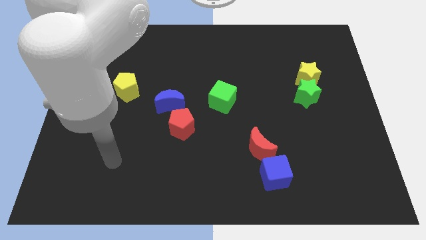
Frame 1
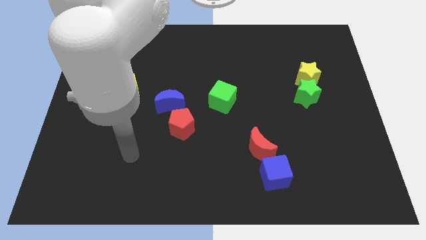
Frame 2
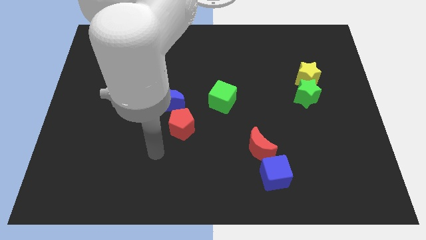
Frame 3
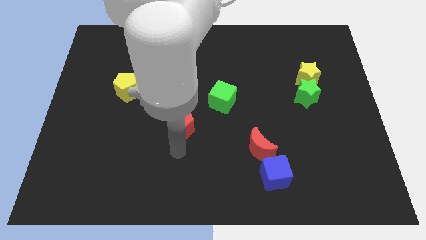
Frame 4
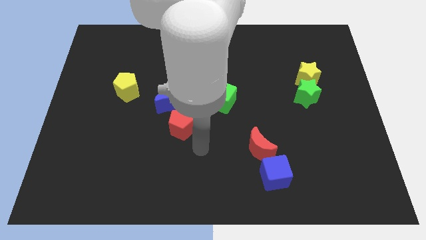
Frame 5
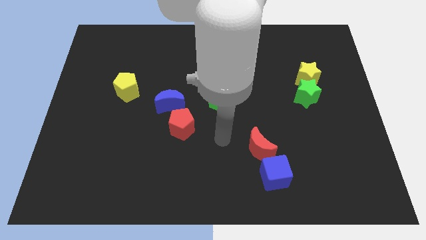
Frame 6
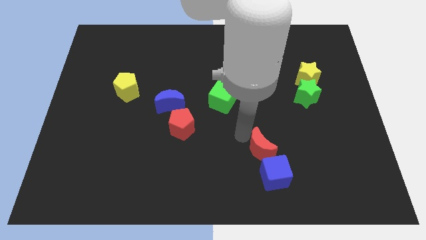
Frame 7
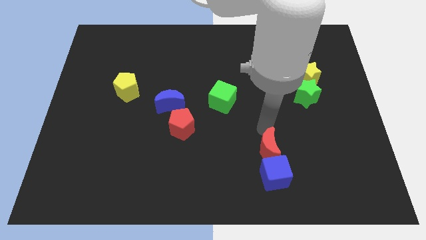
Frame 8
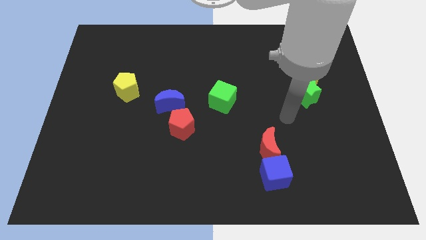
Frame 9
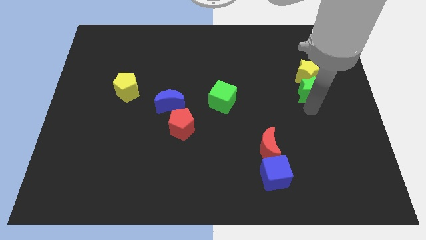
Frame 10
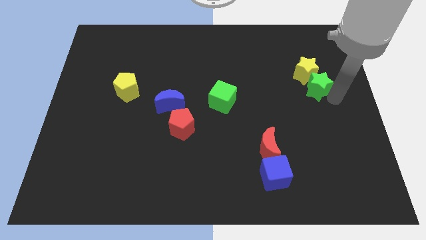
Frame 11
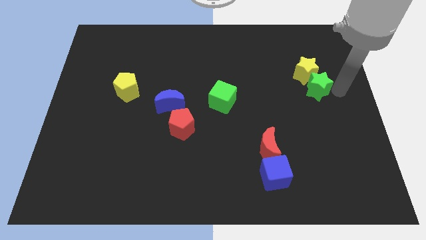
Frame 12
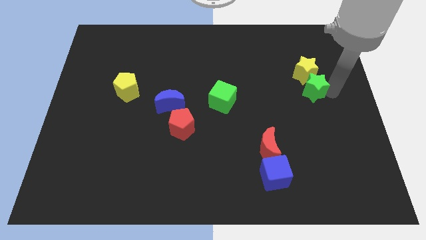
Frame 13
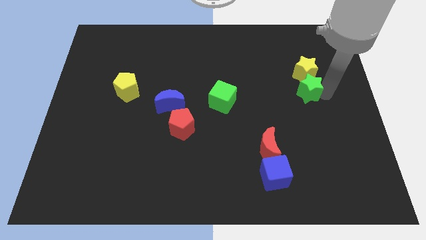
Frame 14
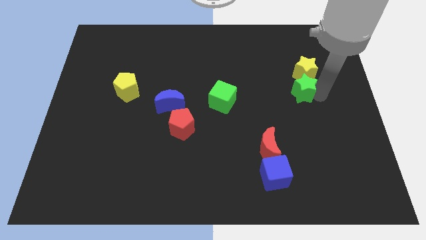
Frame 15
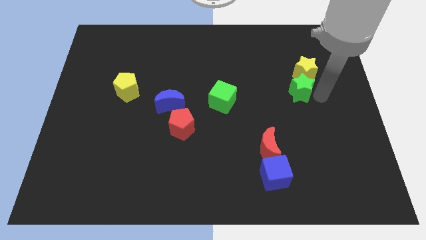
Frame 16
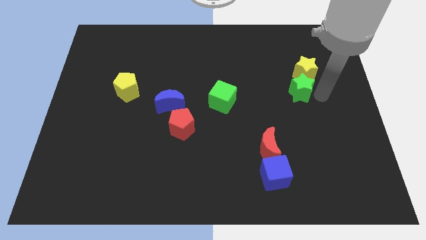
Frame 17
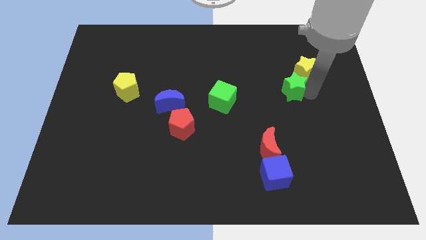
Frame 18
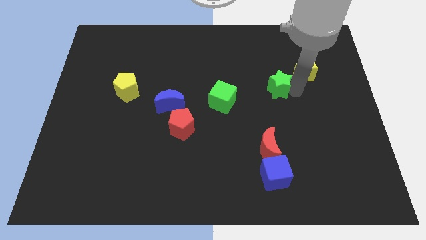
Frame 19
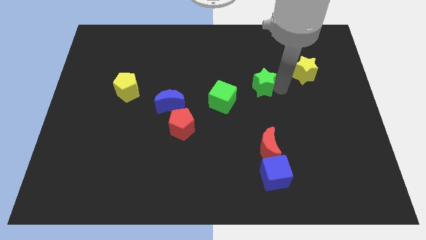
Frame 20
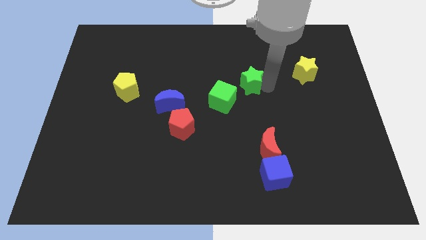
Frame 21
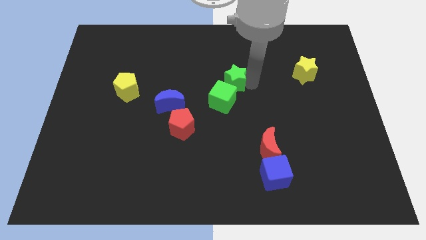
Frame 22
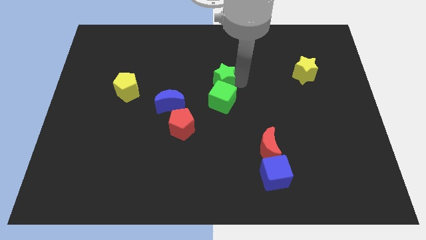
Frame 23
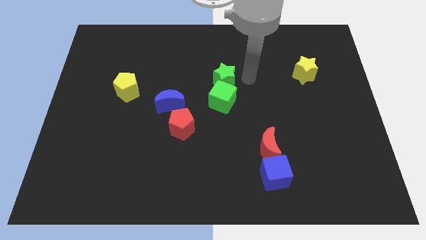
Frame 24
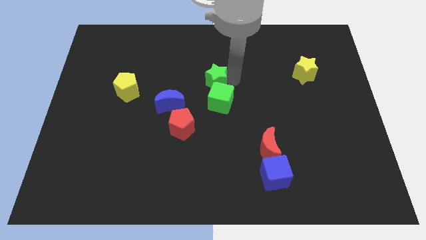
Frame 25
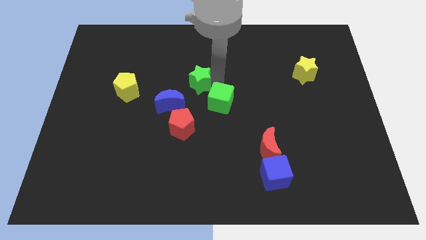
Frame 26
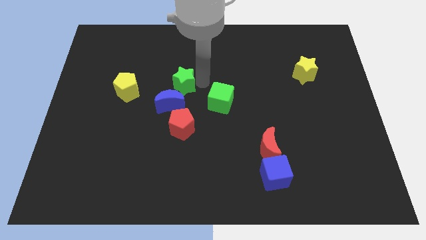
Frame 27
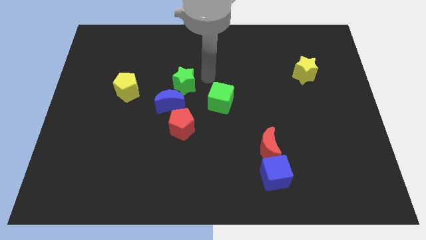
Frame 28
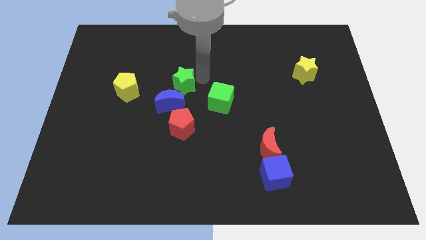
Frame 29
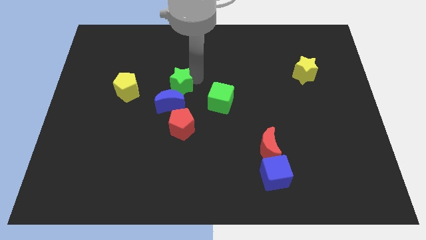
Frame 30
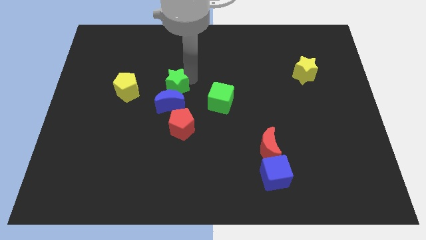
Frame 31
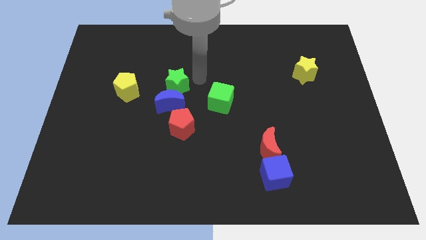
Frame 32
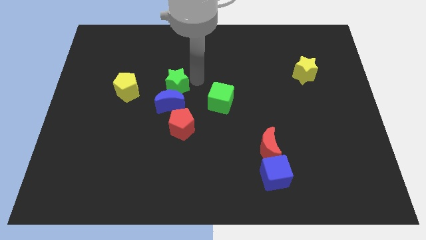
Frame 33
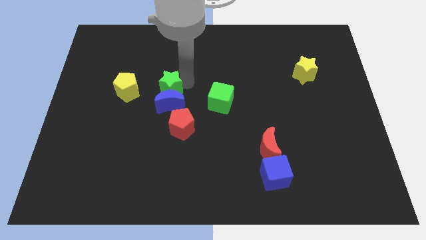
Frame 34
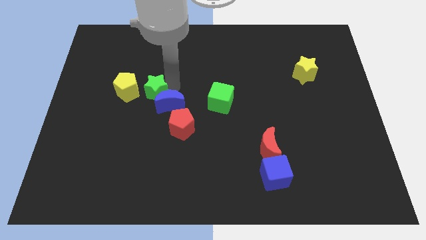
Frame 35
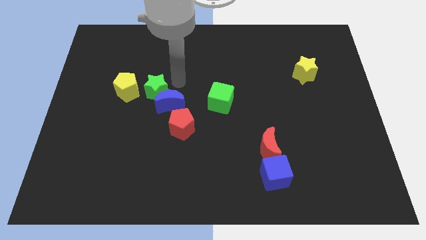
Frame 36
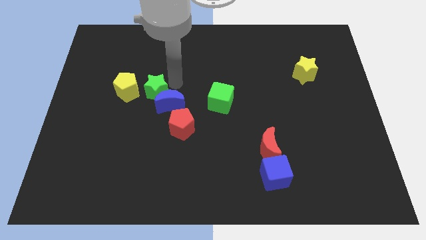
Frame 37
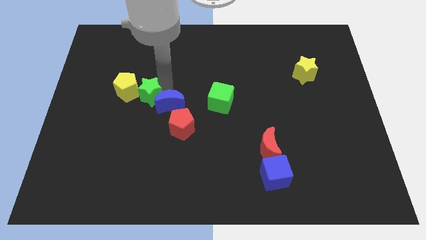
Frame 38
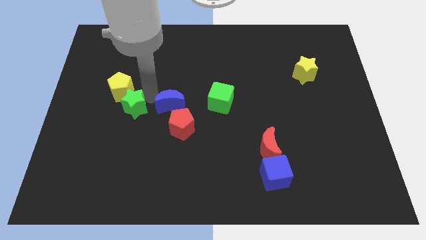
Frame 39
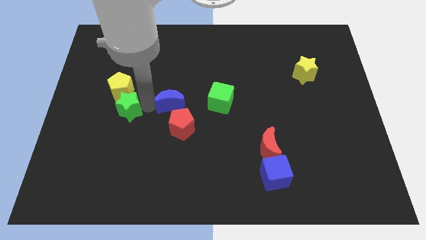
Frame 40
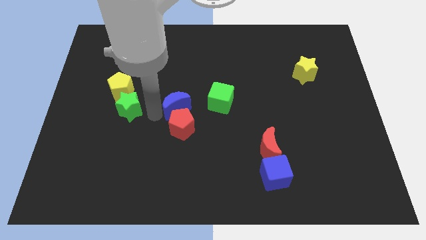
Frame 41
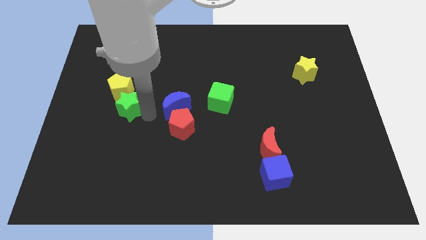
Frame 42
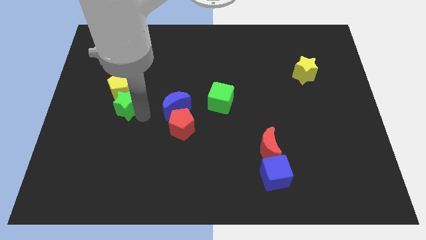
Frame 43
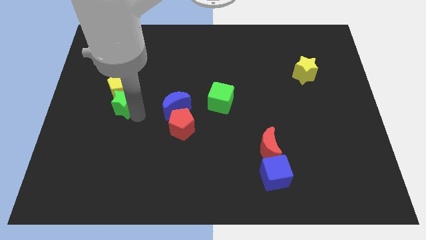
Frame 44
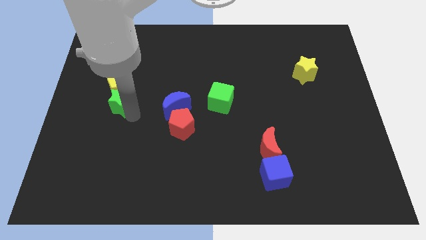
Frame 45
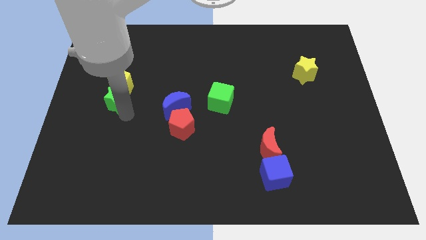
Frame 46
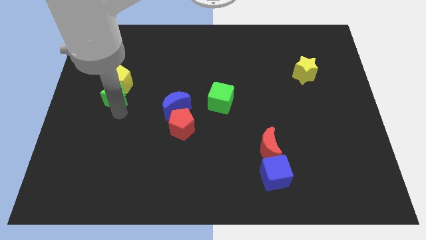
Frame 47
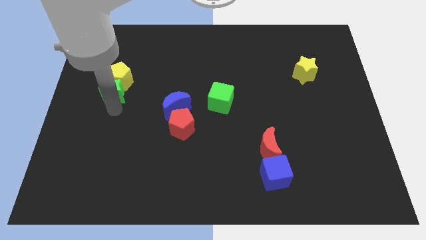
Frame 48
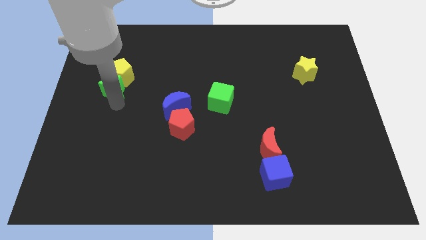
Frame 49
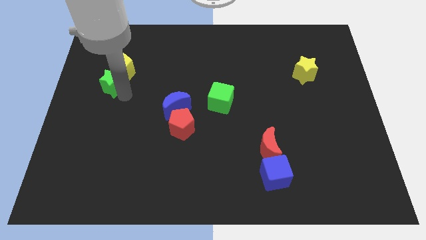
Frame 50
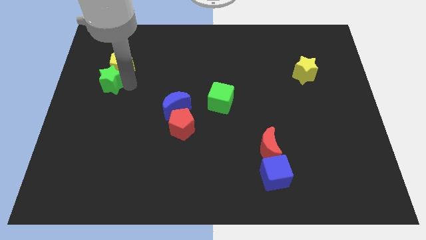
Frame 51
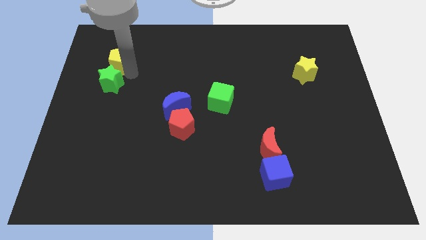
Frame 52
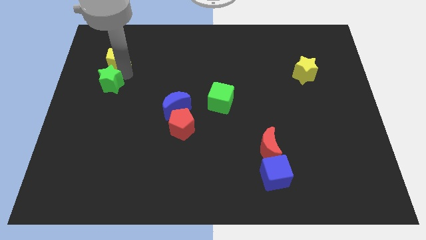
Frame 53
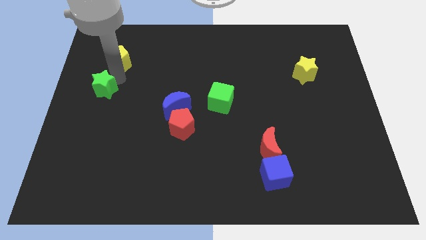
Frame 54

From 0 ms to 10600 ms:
move the green star to the left side

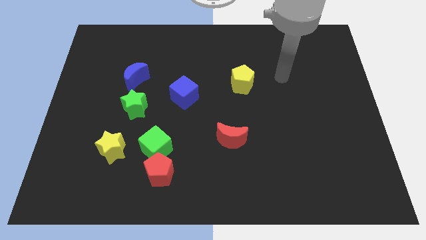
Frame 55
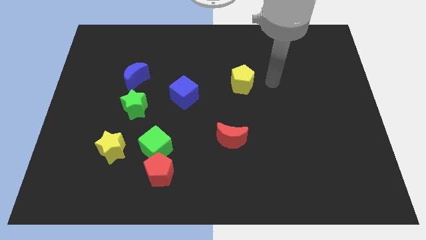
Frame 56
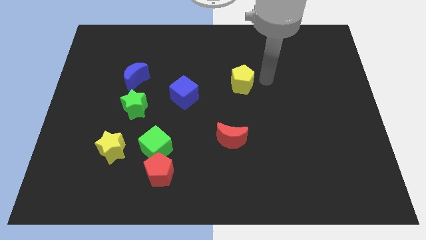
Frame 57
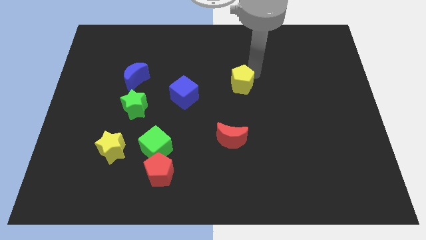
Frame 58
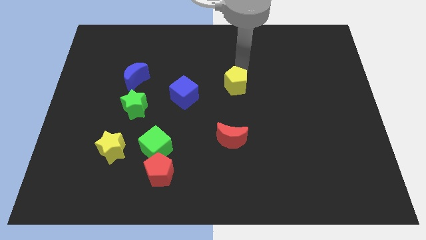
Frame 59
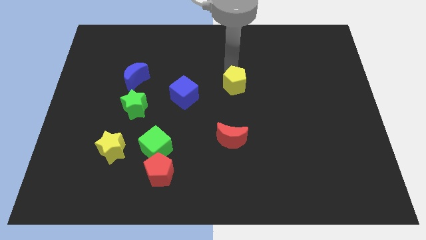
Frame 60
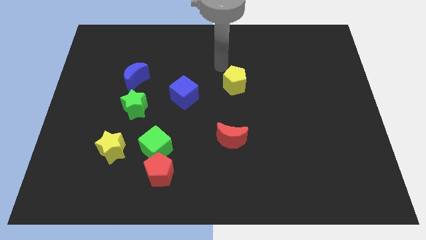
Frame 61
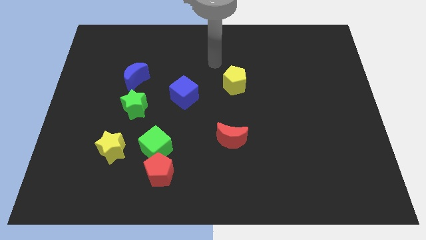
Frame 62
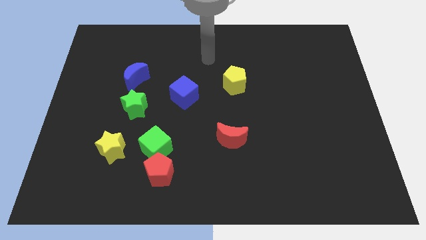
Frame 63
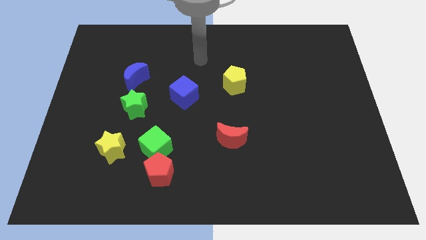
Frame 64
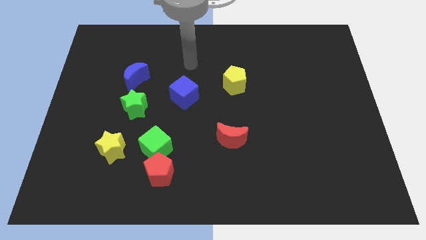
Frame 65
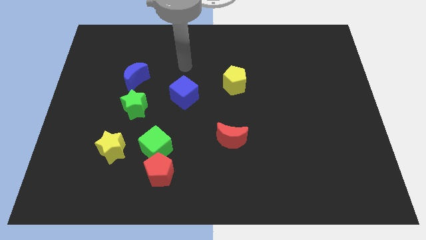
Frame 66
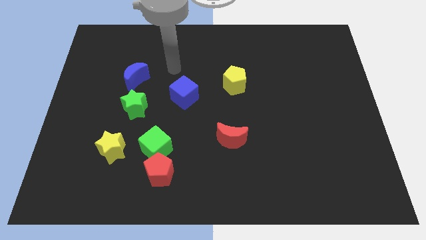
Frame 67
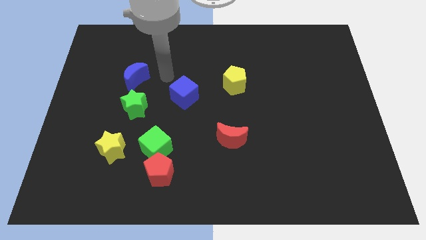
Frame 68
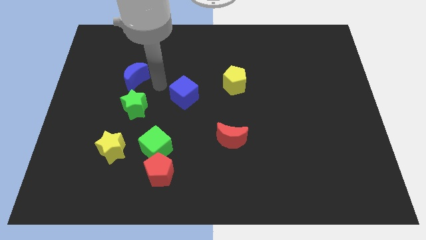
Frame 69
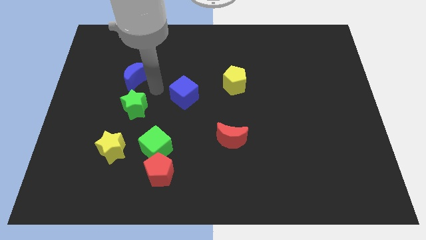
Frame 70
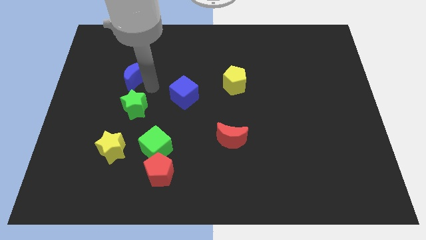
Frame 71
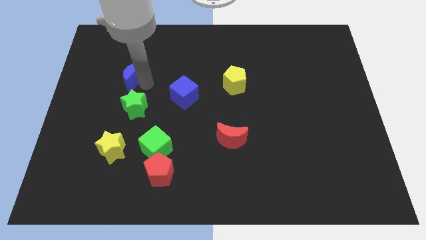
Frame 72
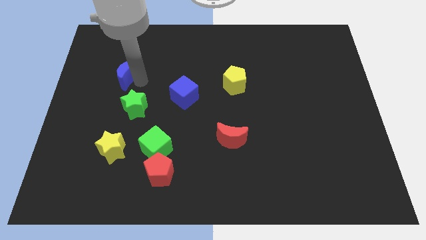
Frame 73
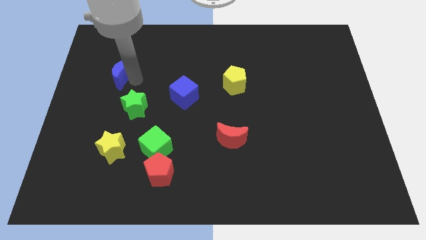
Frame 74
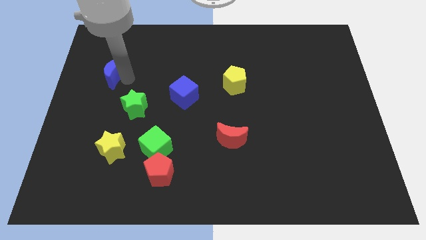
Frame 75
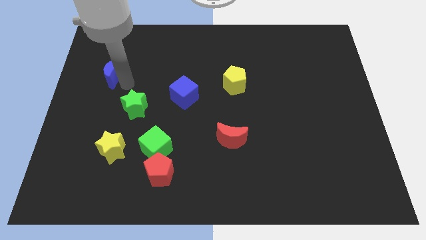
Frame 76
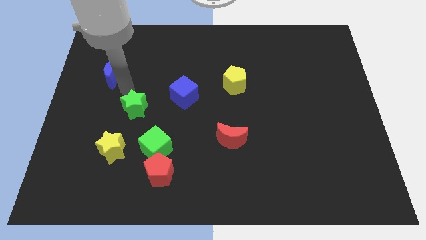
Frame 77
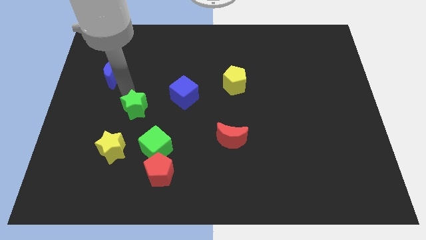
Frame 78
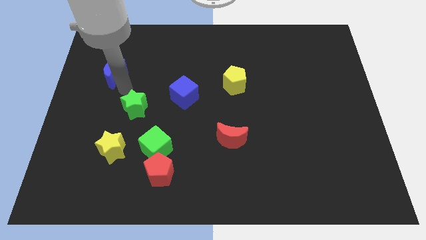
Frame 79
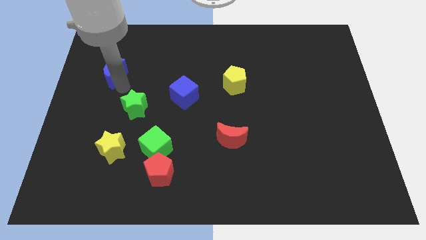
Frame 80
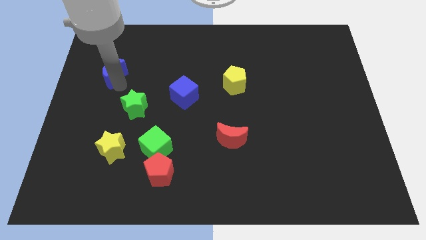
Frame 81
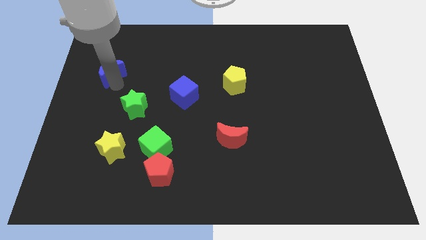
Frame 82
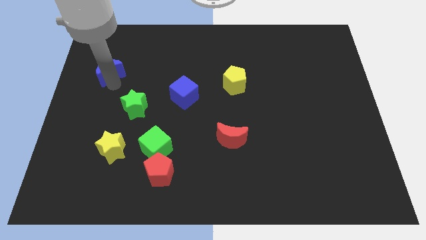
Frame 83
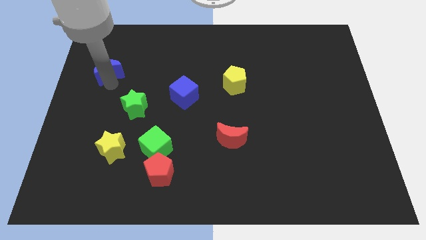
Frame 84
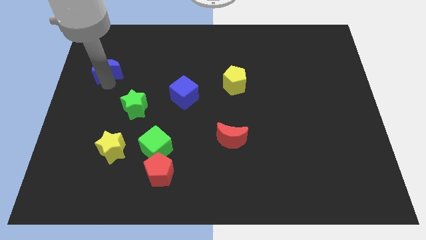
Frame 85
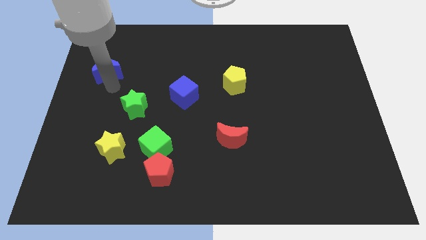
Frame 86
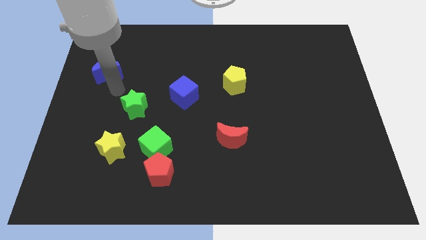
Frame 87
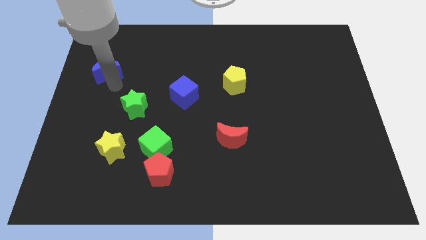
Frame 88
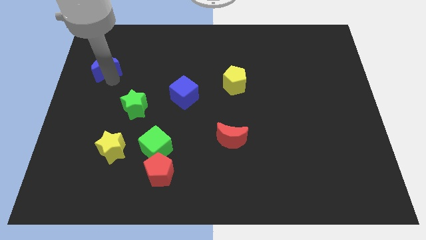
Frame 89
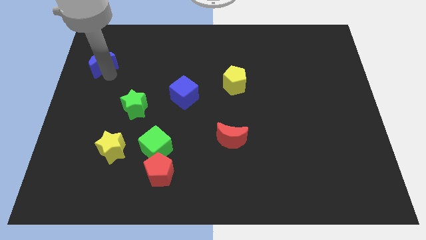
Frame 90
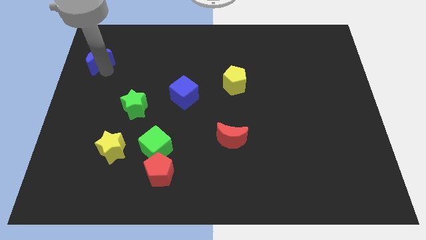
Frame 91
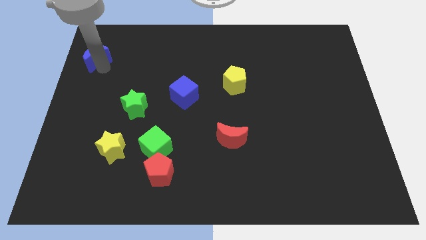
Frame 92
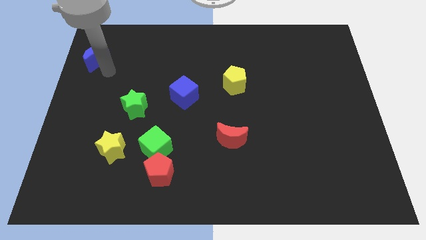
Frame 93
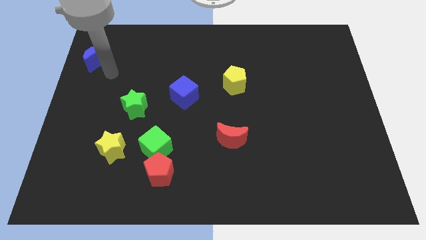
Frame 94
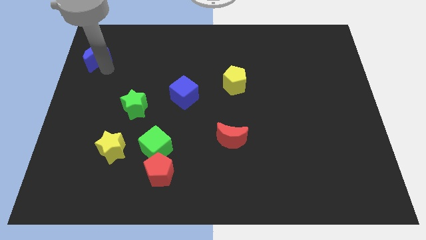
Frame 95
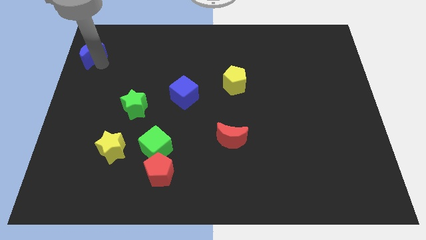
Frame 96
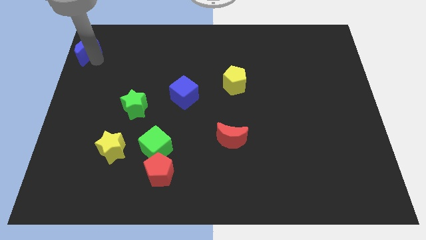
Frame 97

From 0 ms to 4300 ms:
put the blue moon to the top left corner
